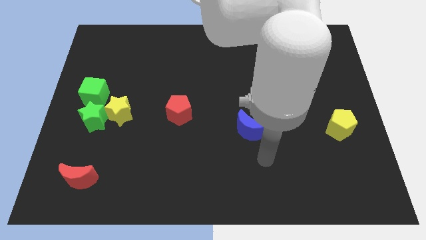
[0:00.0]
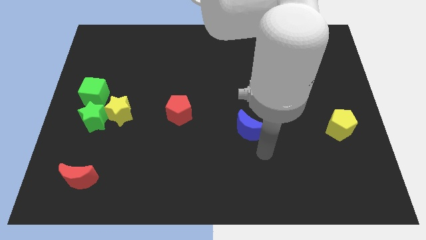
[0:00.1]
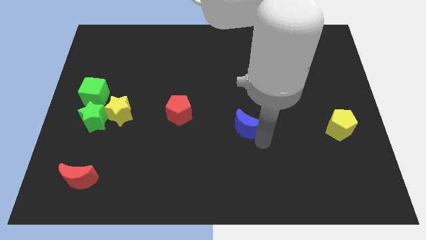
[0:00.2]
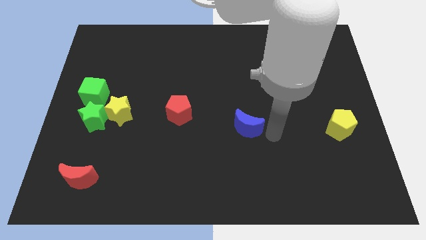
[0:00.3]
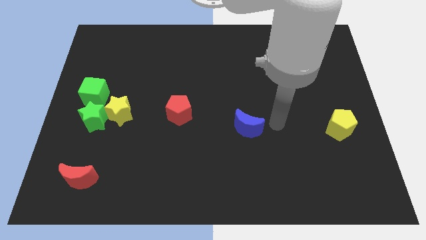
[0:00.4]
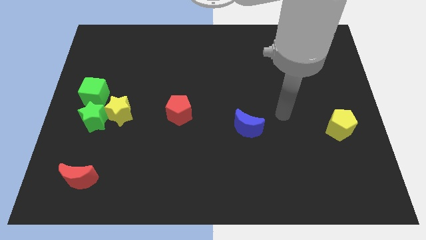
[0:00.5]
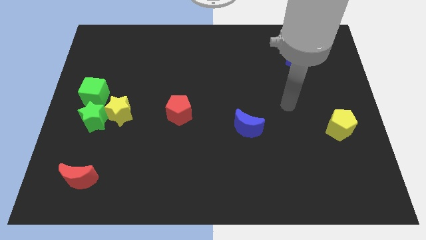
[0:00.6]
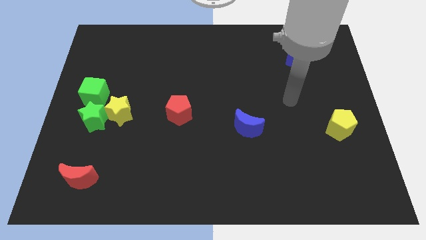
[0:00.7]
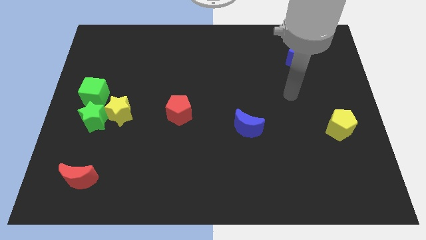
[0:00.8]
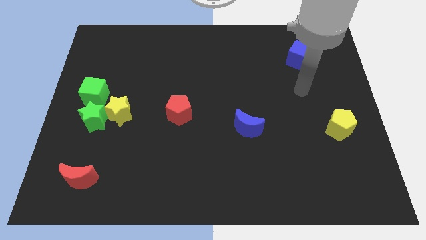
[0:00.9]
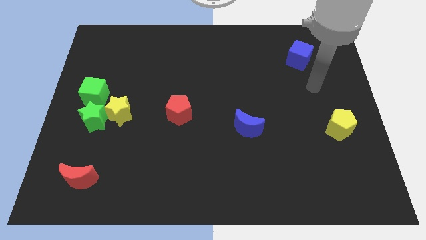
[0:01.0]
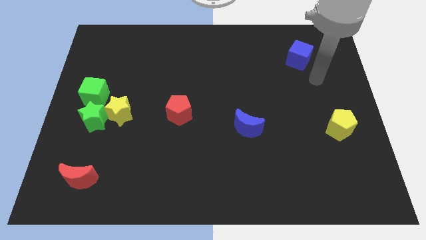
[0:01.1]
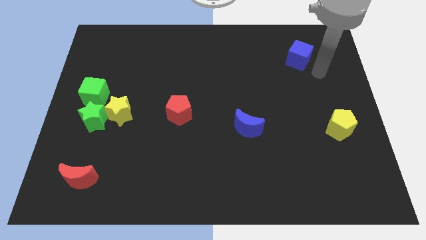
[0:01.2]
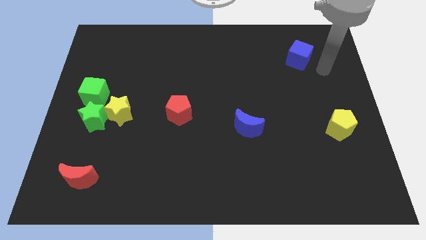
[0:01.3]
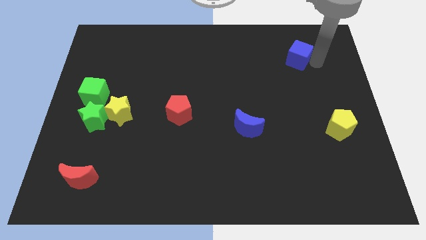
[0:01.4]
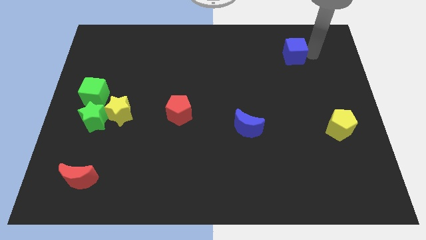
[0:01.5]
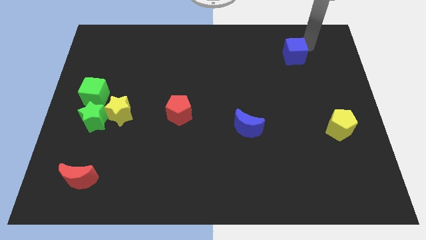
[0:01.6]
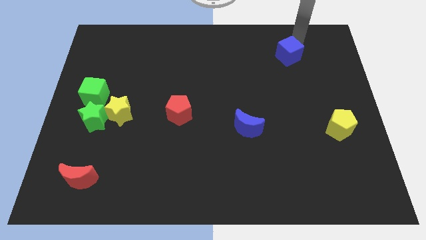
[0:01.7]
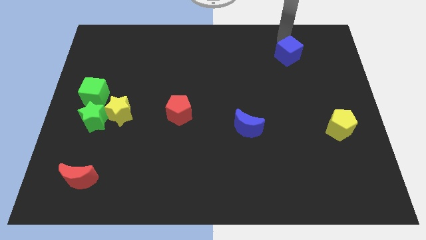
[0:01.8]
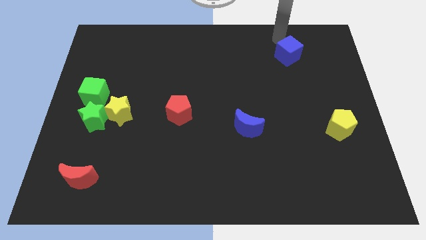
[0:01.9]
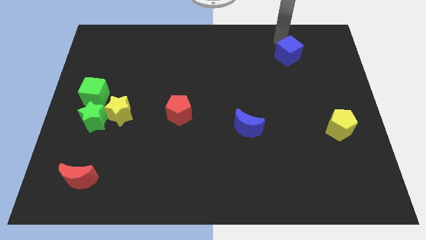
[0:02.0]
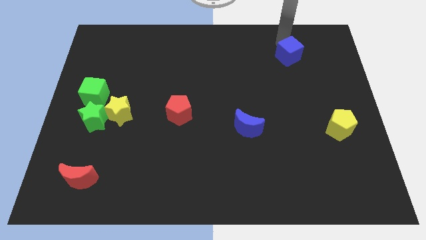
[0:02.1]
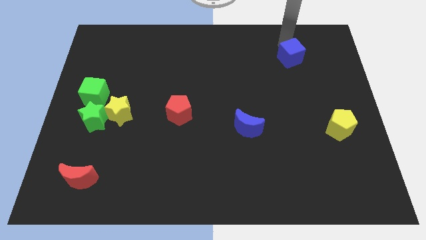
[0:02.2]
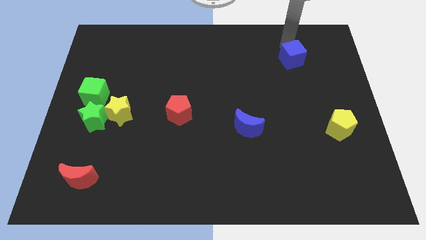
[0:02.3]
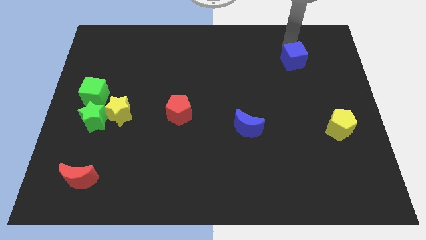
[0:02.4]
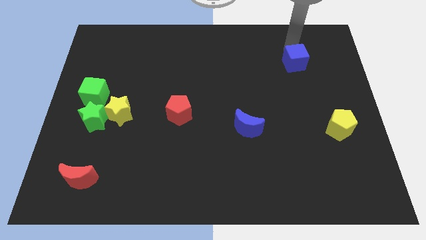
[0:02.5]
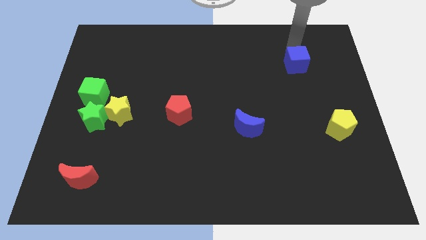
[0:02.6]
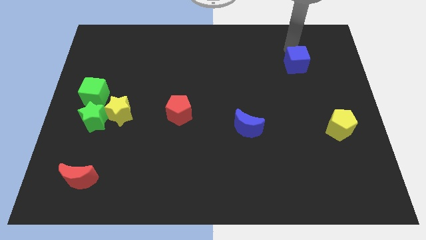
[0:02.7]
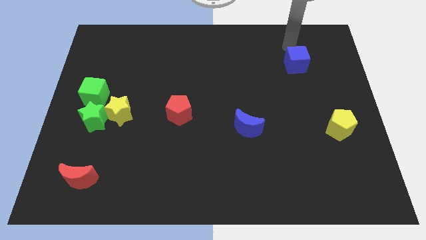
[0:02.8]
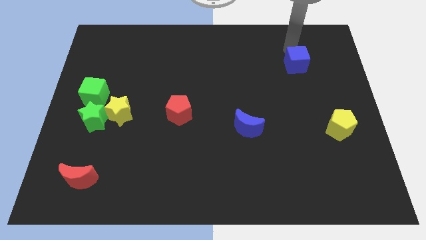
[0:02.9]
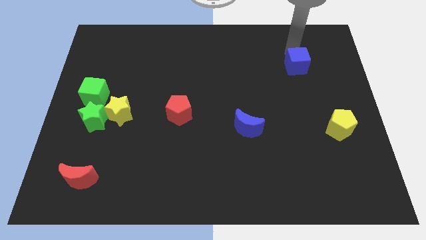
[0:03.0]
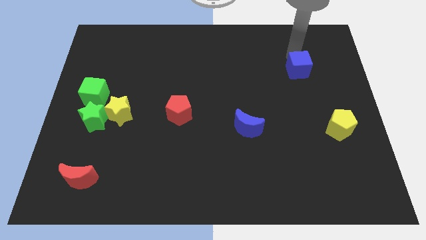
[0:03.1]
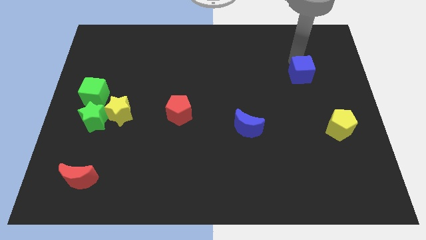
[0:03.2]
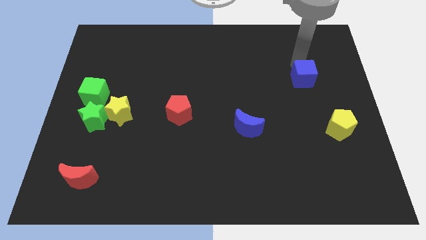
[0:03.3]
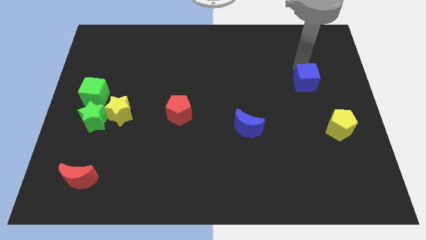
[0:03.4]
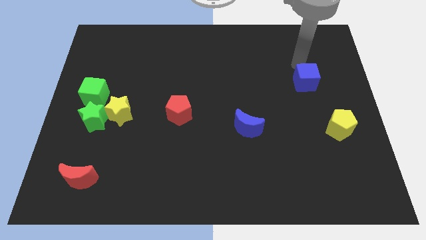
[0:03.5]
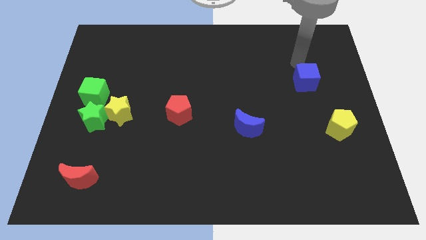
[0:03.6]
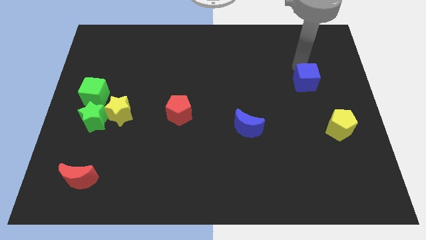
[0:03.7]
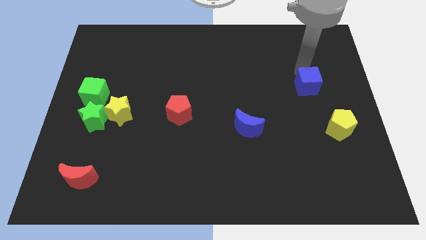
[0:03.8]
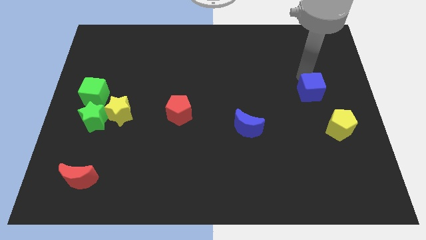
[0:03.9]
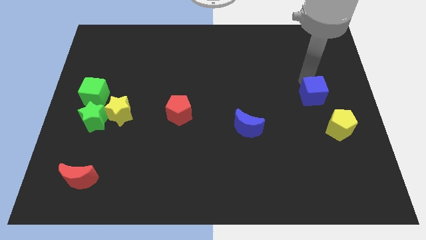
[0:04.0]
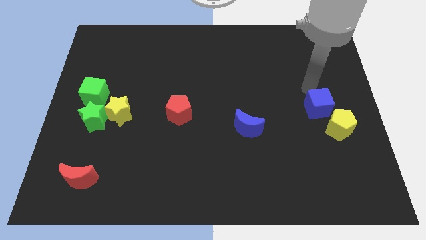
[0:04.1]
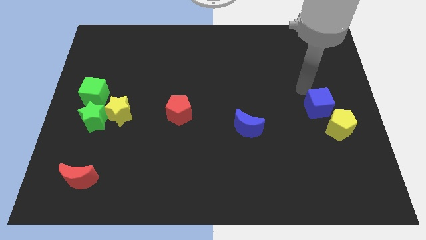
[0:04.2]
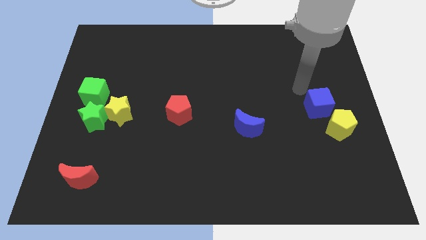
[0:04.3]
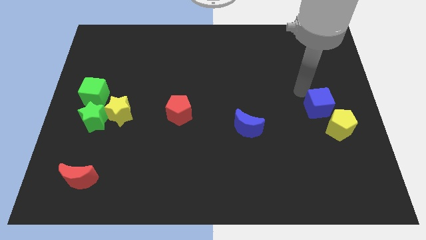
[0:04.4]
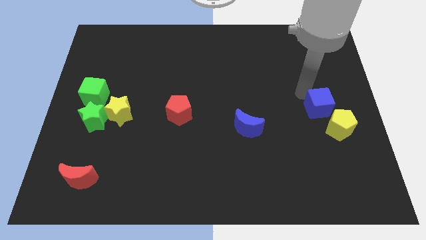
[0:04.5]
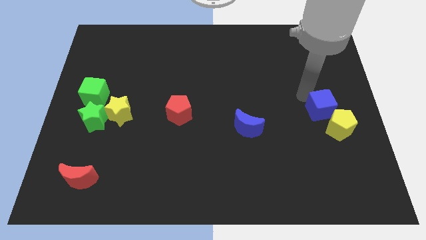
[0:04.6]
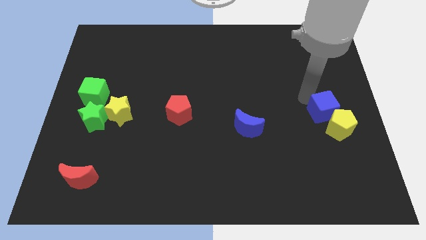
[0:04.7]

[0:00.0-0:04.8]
put the blue cube close to the yellow pentagon

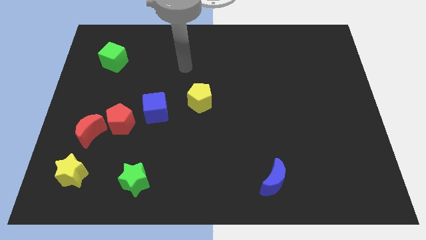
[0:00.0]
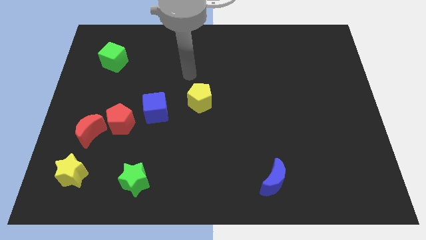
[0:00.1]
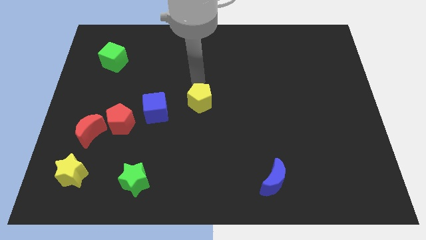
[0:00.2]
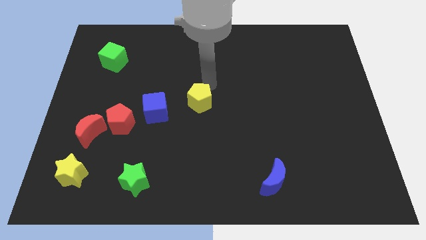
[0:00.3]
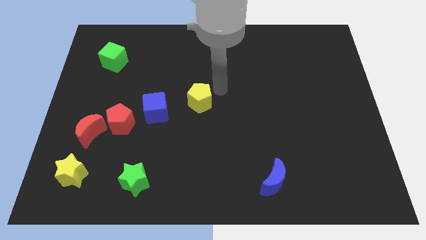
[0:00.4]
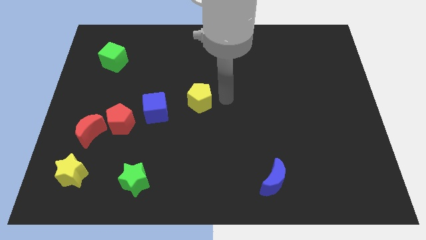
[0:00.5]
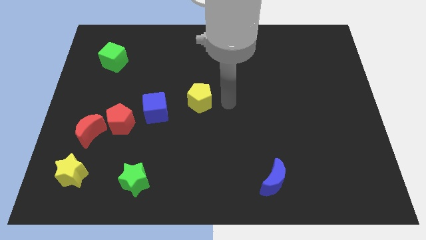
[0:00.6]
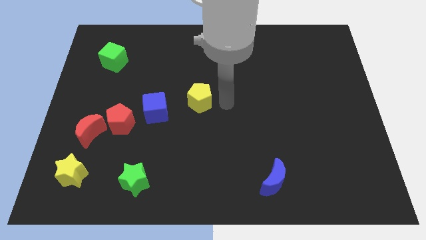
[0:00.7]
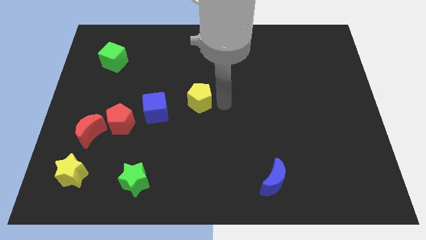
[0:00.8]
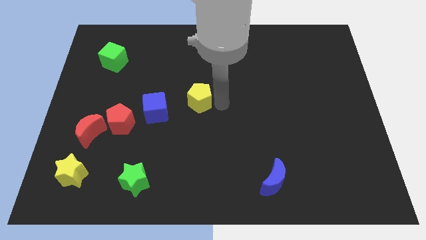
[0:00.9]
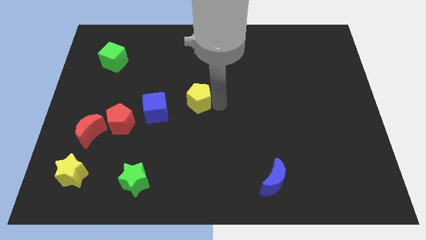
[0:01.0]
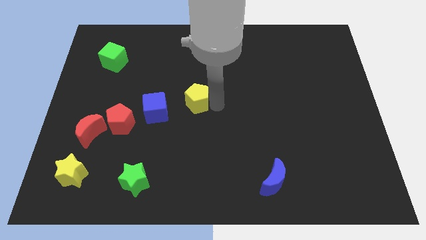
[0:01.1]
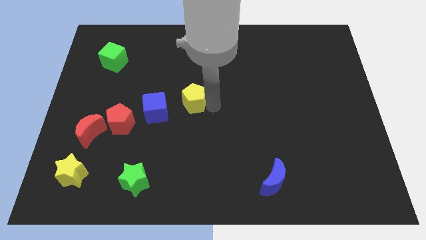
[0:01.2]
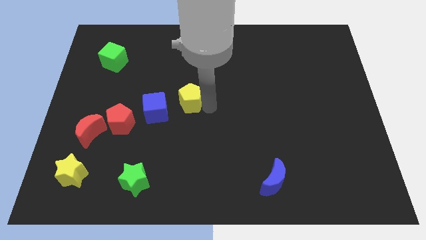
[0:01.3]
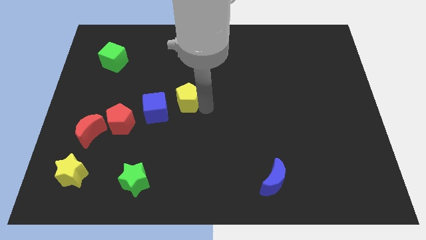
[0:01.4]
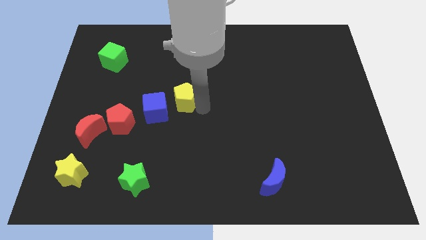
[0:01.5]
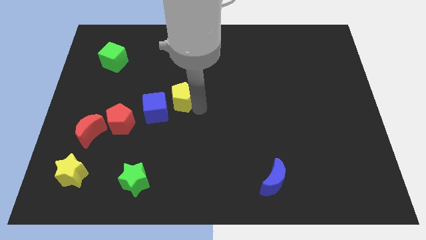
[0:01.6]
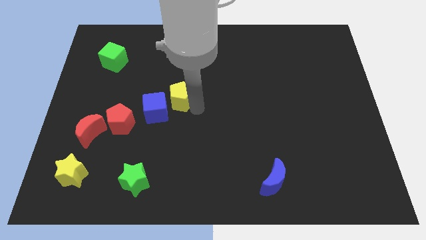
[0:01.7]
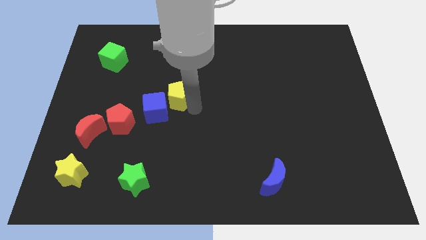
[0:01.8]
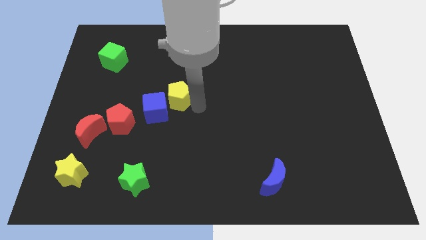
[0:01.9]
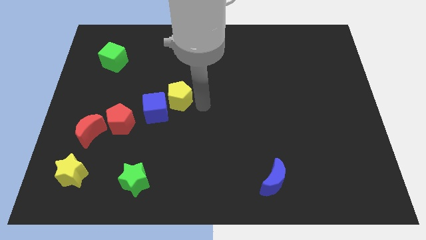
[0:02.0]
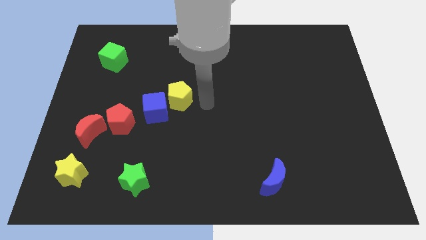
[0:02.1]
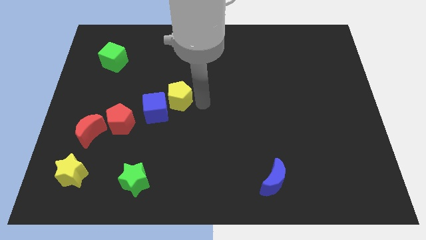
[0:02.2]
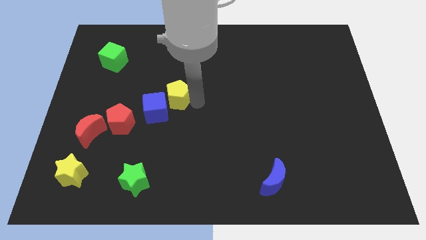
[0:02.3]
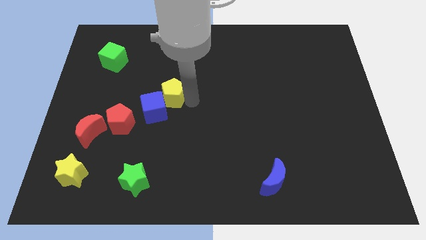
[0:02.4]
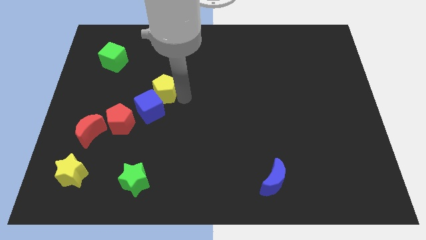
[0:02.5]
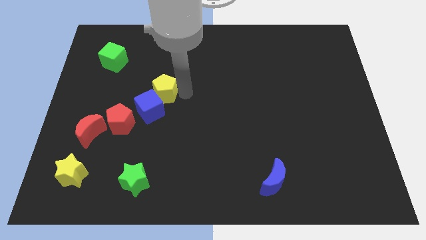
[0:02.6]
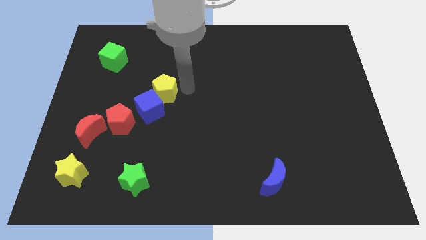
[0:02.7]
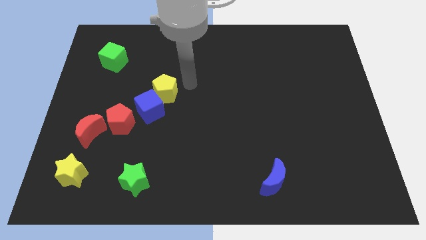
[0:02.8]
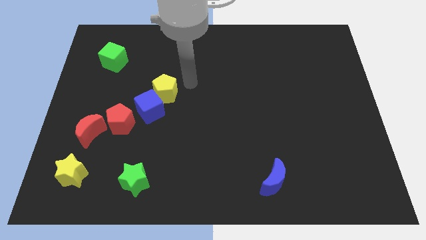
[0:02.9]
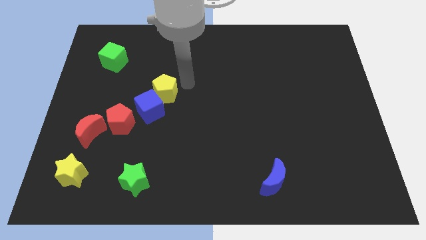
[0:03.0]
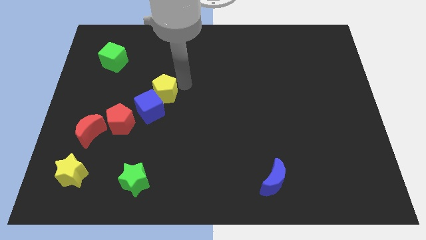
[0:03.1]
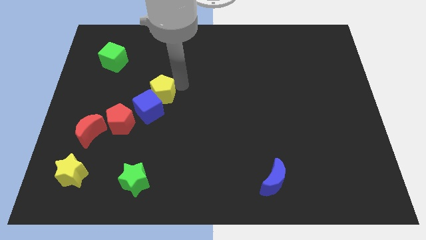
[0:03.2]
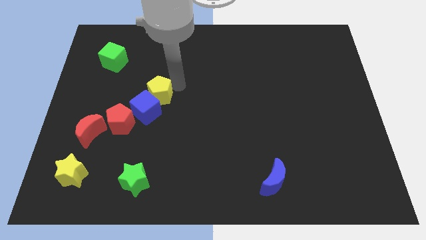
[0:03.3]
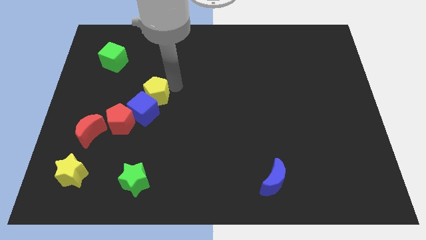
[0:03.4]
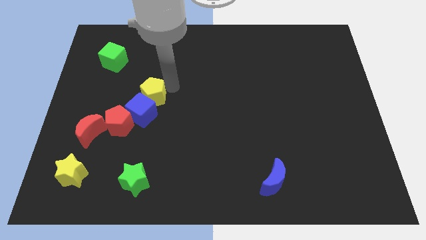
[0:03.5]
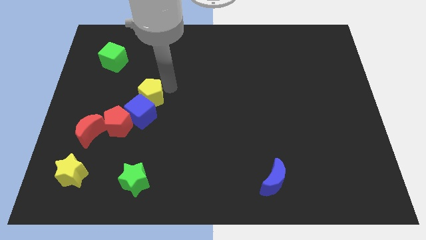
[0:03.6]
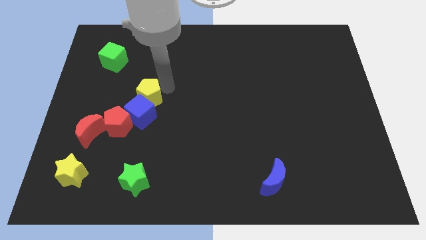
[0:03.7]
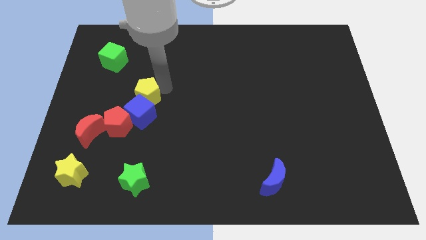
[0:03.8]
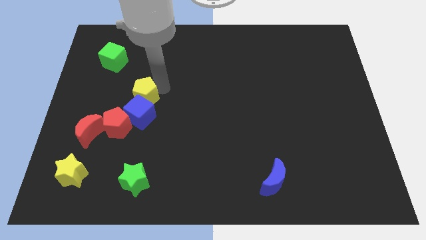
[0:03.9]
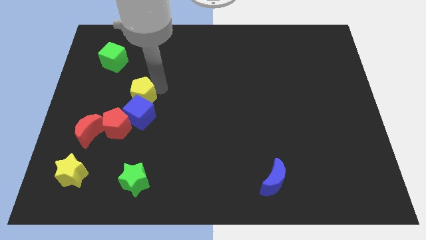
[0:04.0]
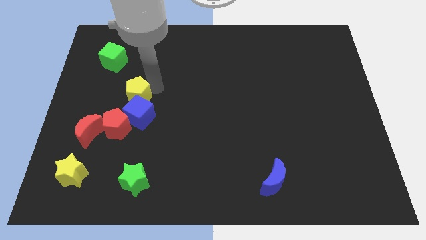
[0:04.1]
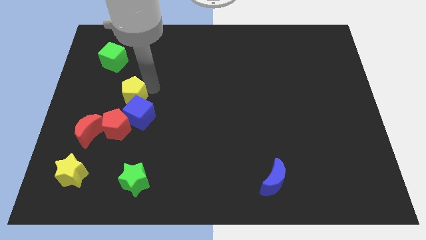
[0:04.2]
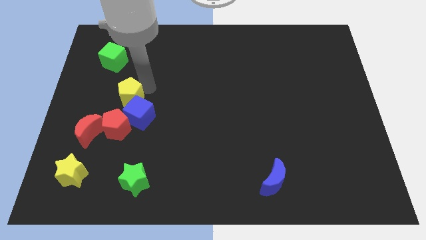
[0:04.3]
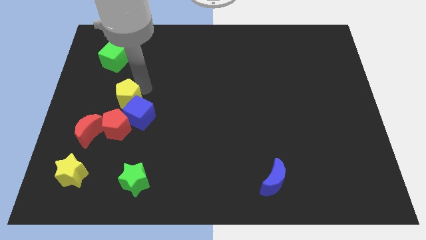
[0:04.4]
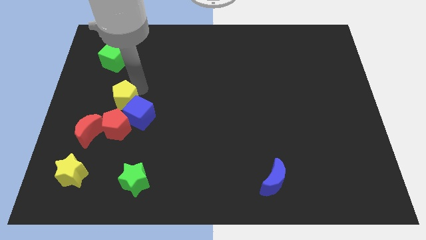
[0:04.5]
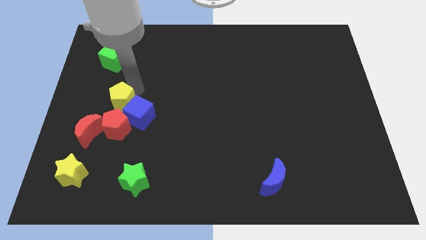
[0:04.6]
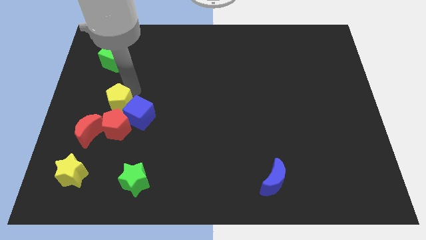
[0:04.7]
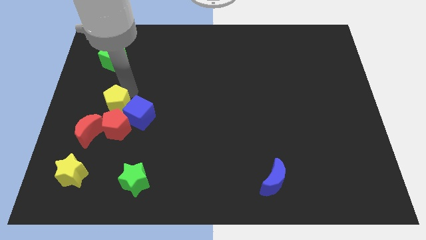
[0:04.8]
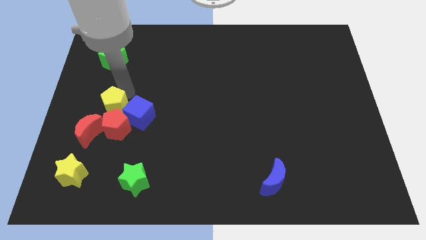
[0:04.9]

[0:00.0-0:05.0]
put the yellow pentagon next to the red pentagon
